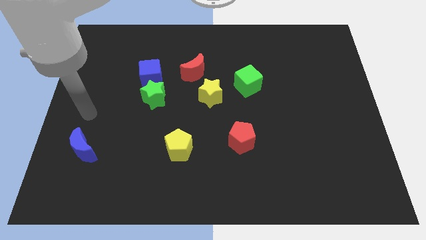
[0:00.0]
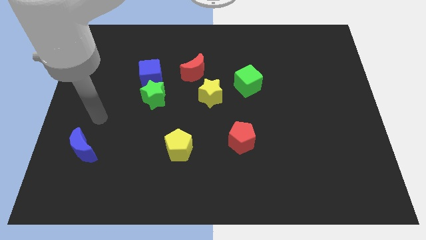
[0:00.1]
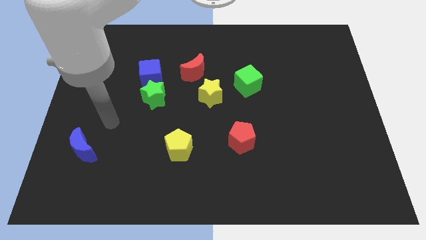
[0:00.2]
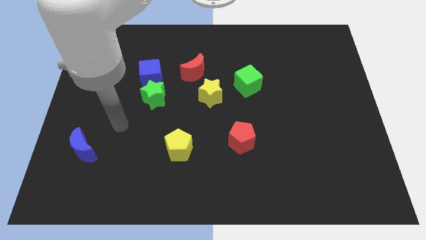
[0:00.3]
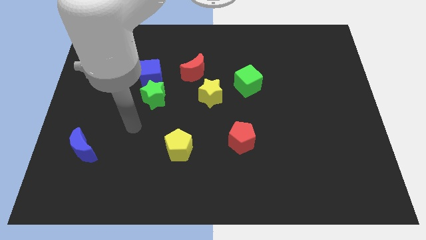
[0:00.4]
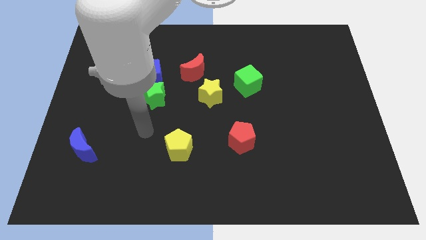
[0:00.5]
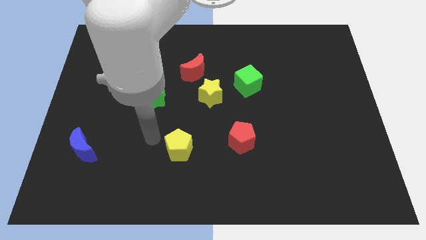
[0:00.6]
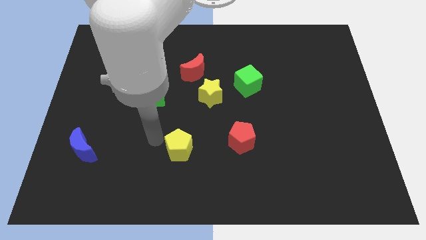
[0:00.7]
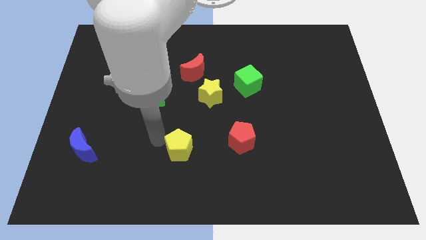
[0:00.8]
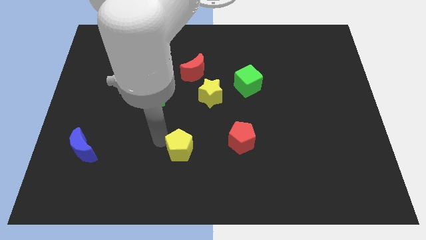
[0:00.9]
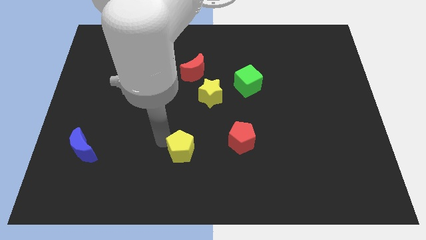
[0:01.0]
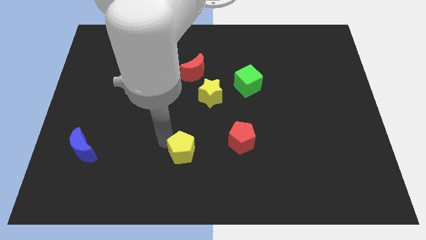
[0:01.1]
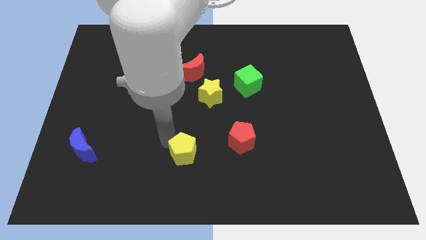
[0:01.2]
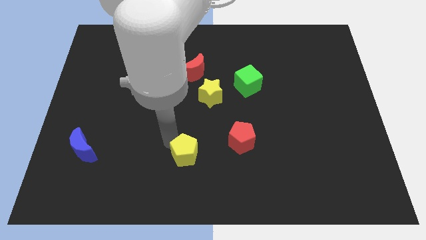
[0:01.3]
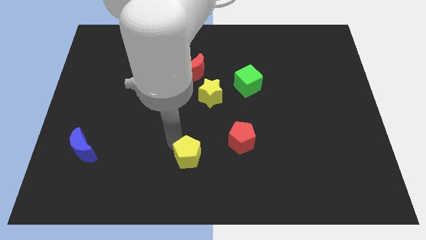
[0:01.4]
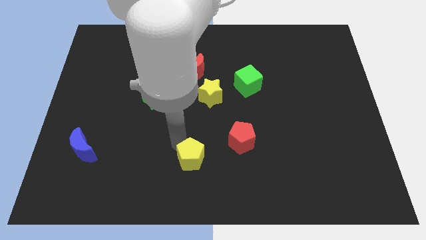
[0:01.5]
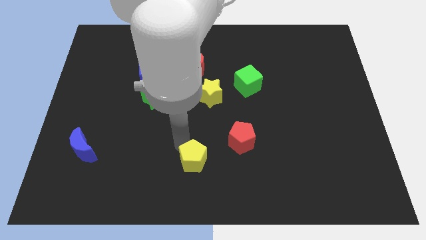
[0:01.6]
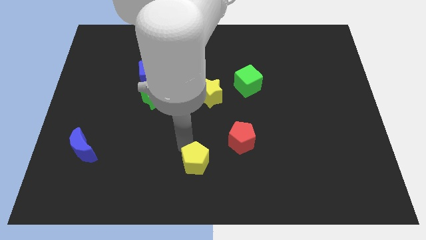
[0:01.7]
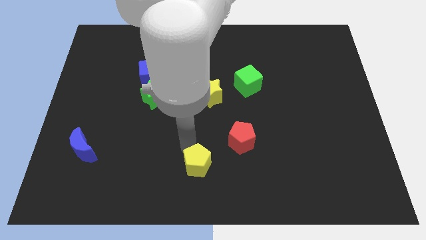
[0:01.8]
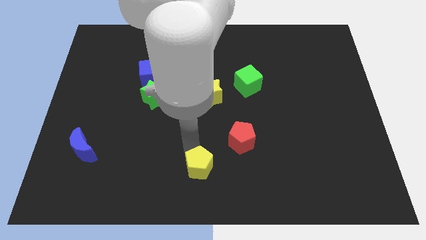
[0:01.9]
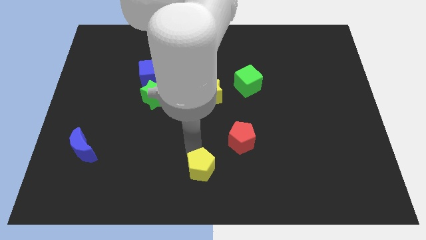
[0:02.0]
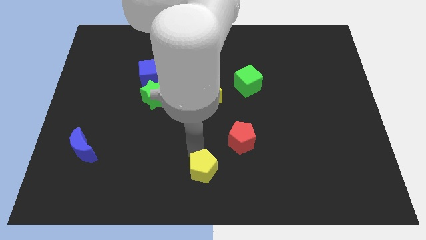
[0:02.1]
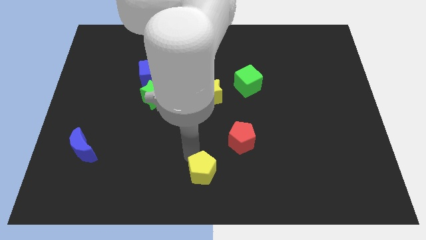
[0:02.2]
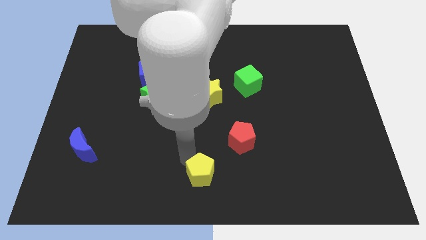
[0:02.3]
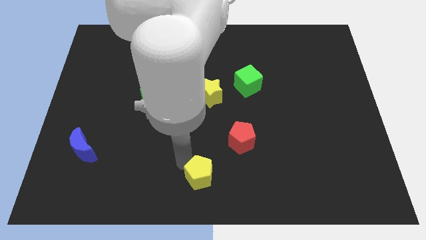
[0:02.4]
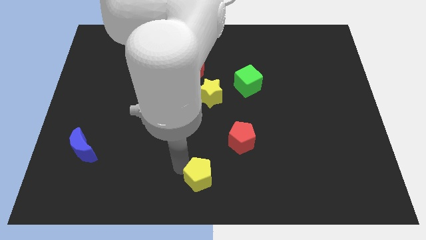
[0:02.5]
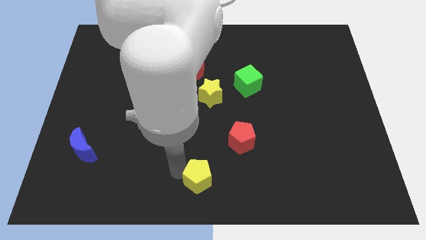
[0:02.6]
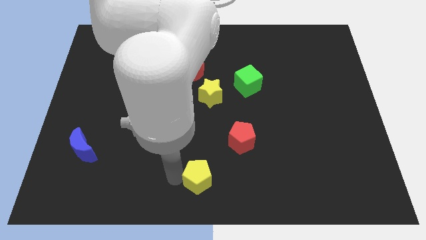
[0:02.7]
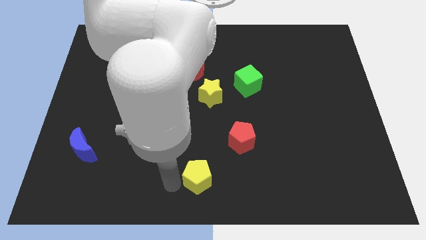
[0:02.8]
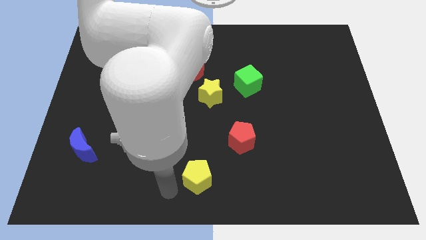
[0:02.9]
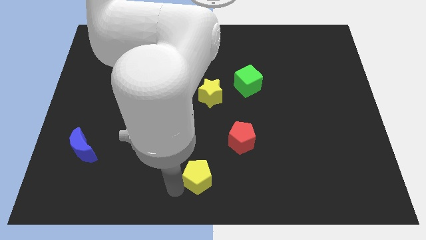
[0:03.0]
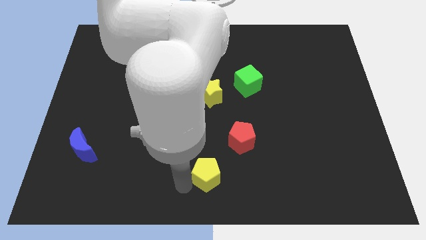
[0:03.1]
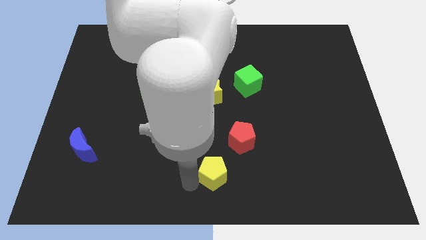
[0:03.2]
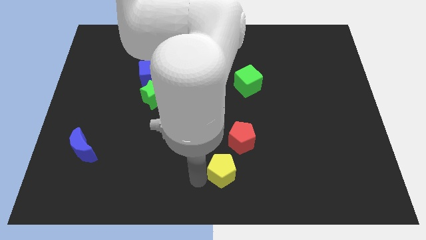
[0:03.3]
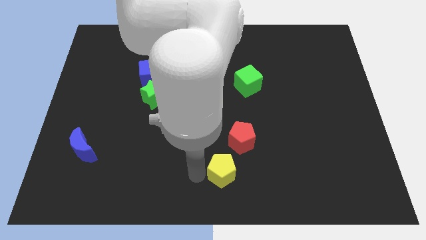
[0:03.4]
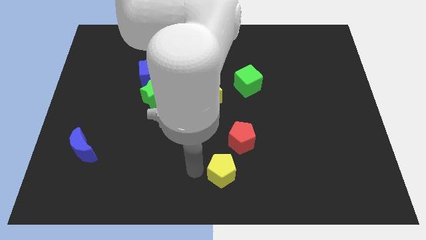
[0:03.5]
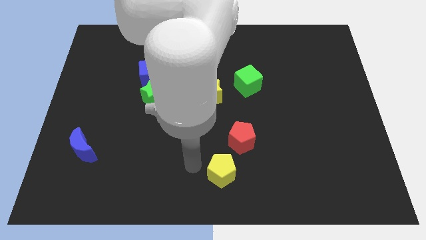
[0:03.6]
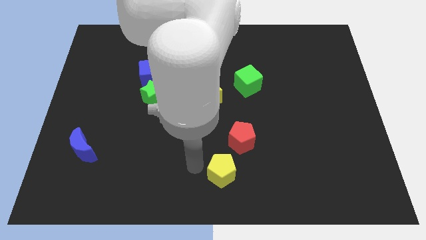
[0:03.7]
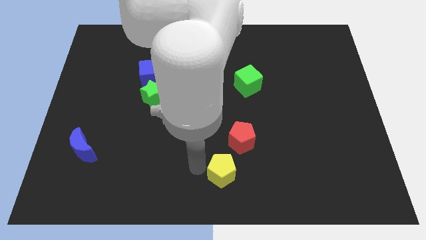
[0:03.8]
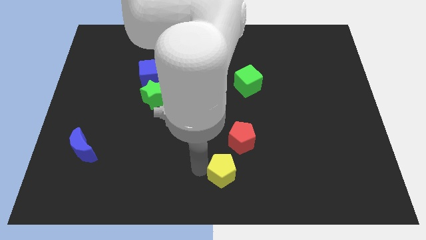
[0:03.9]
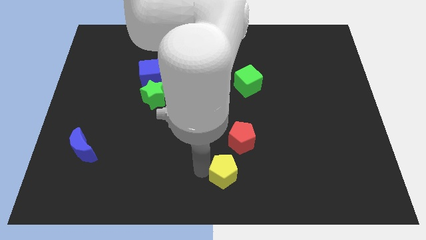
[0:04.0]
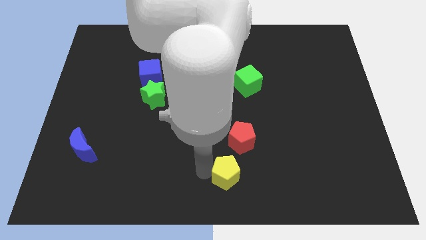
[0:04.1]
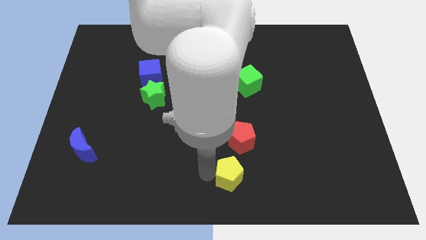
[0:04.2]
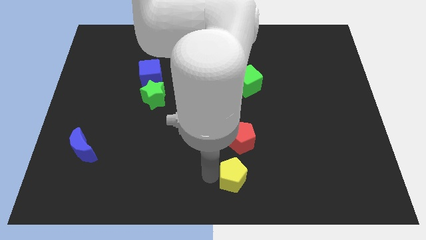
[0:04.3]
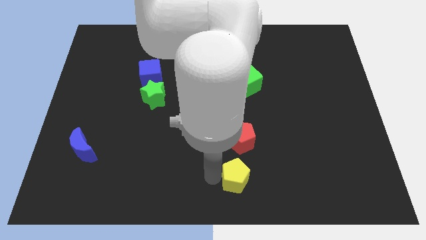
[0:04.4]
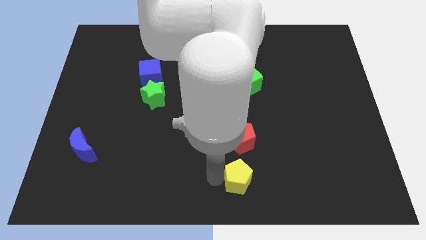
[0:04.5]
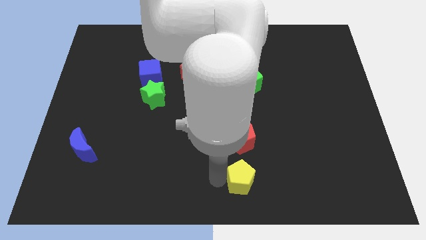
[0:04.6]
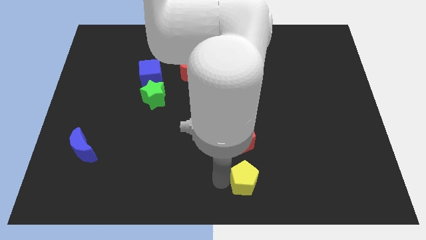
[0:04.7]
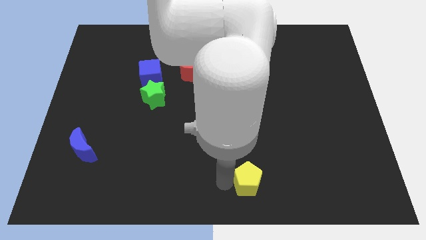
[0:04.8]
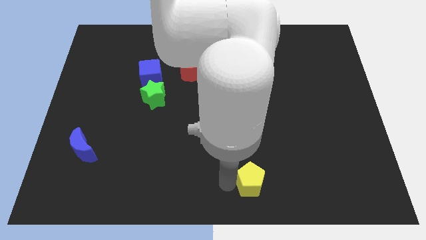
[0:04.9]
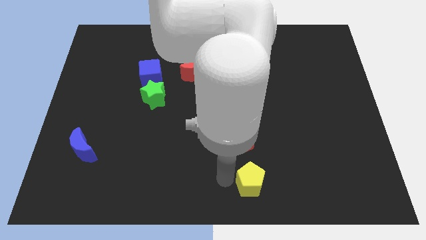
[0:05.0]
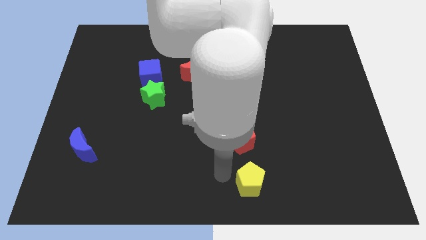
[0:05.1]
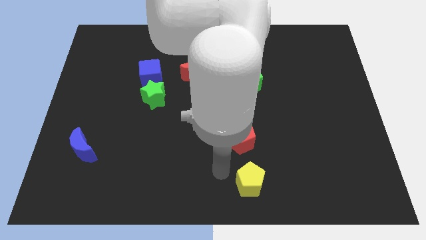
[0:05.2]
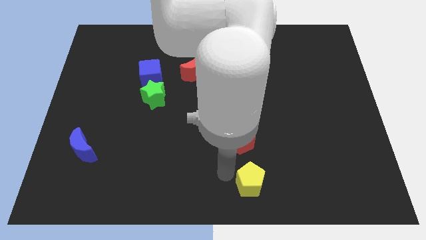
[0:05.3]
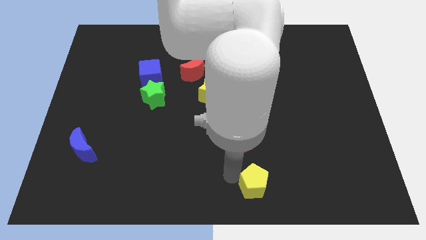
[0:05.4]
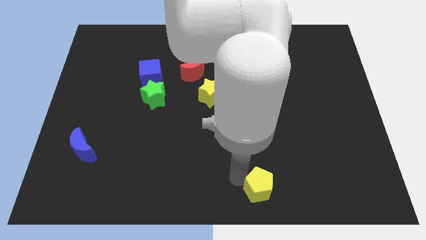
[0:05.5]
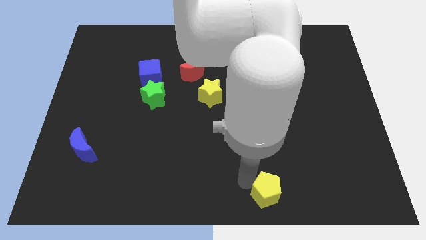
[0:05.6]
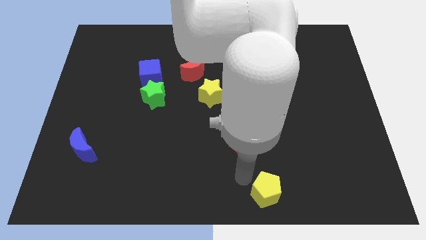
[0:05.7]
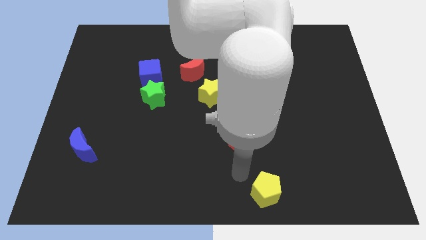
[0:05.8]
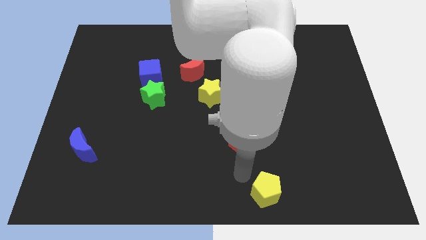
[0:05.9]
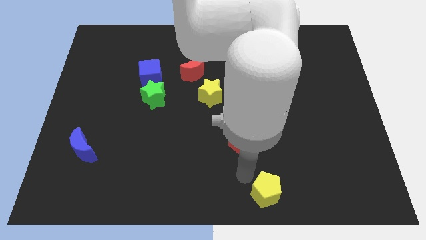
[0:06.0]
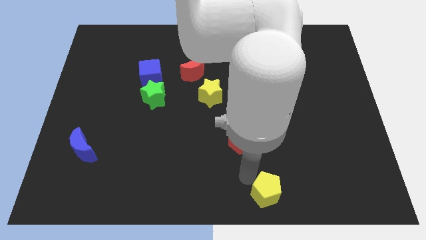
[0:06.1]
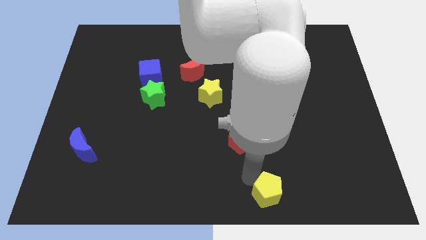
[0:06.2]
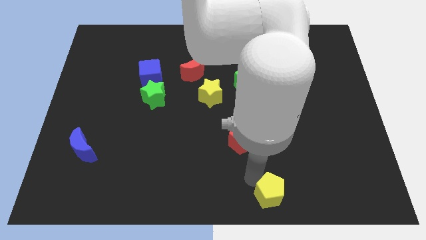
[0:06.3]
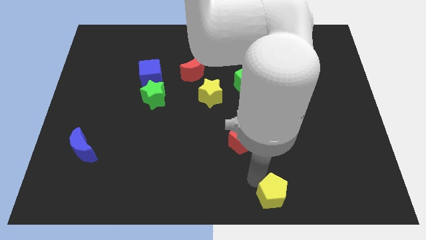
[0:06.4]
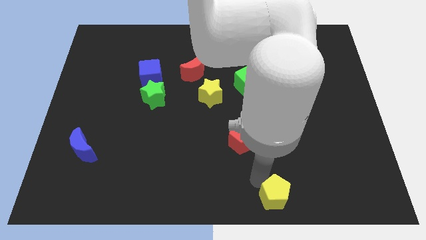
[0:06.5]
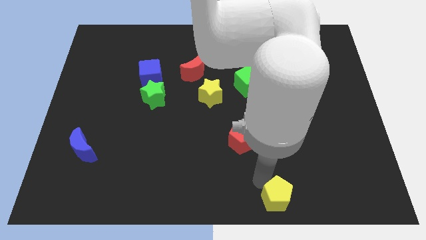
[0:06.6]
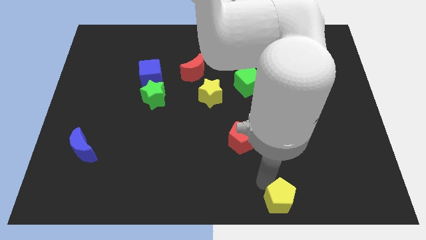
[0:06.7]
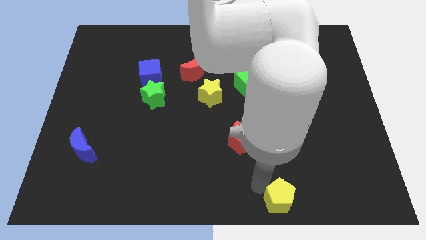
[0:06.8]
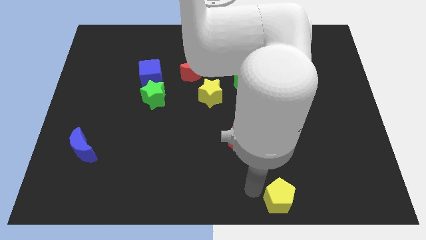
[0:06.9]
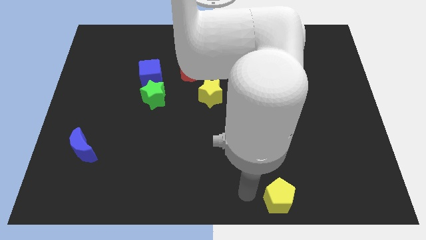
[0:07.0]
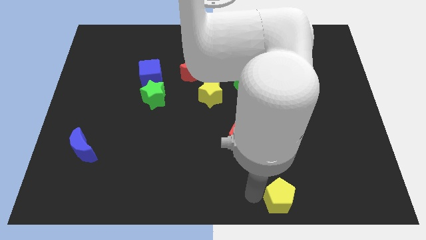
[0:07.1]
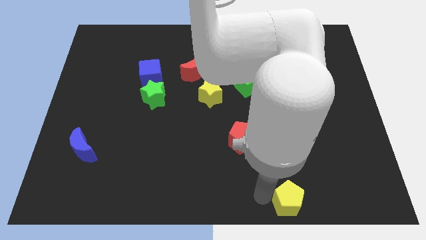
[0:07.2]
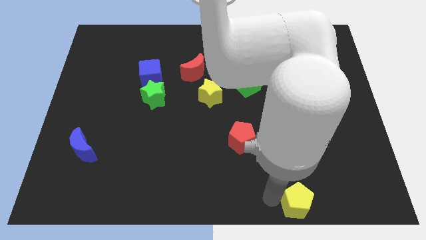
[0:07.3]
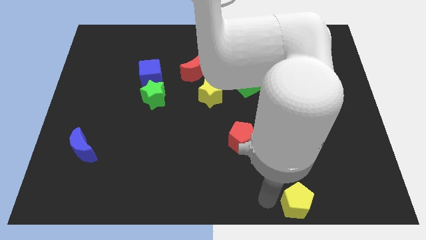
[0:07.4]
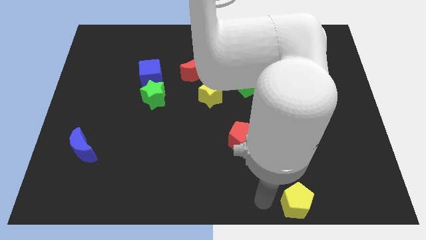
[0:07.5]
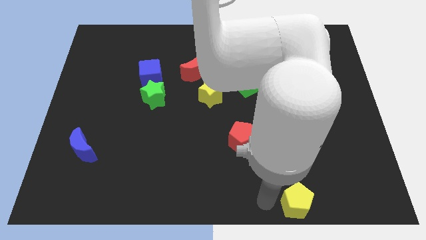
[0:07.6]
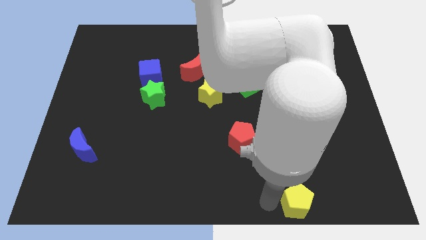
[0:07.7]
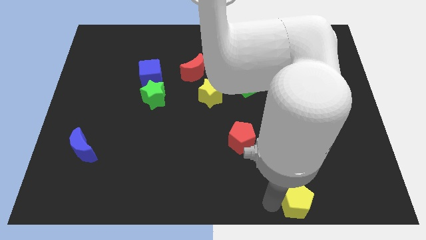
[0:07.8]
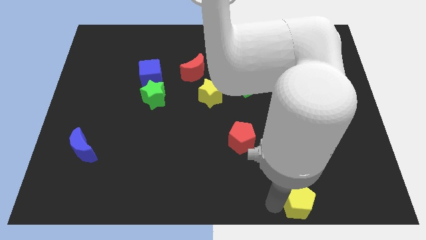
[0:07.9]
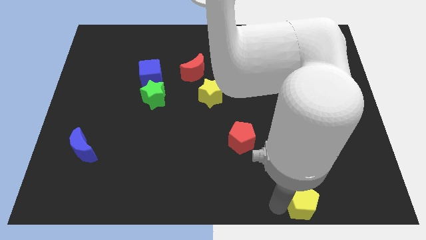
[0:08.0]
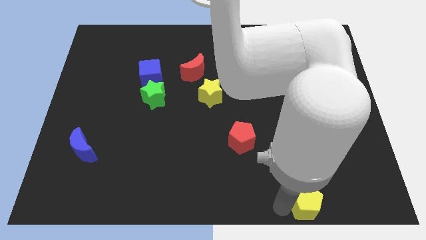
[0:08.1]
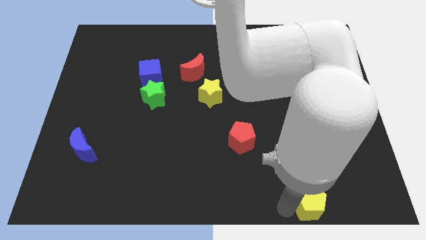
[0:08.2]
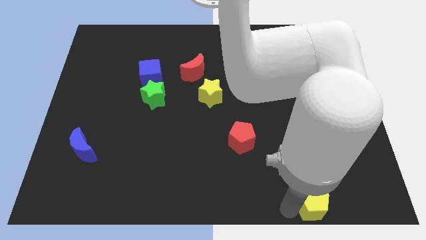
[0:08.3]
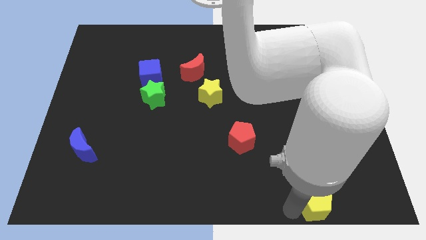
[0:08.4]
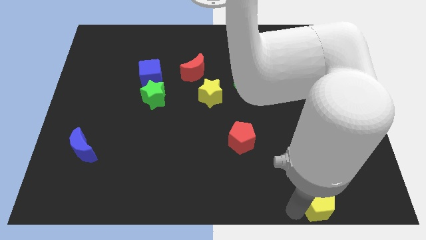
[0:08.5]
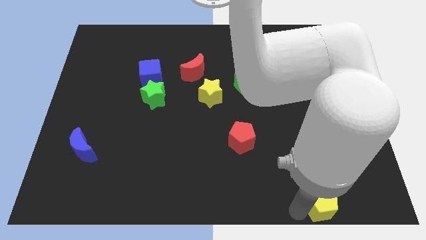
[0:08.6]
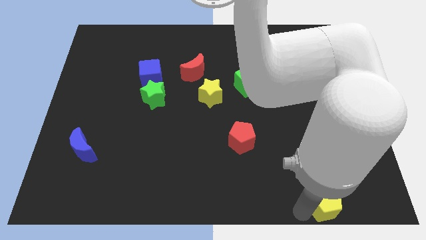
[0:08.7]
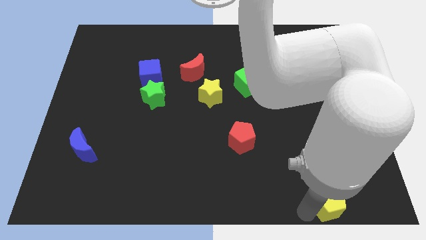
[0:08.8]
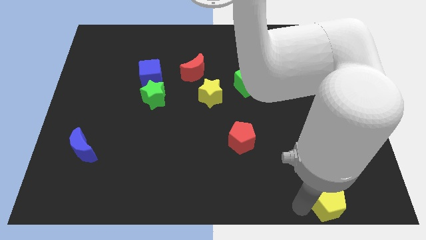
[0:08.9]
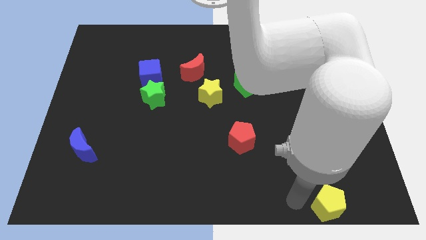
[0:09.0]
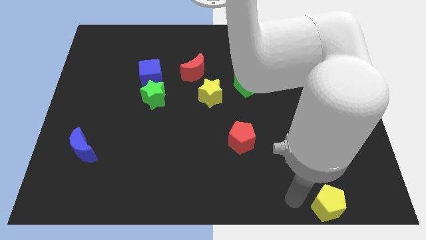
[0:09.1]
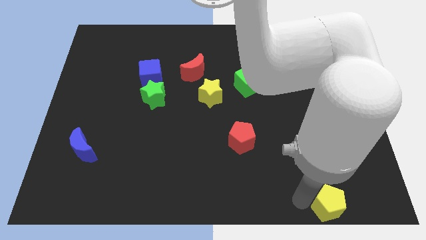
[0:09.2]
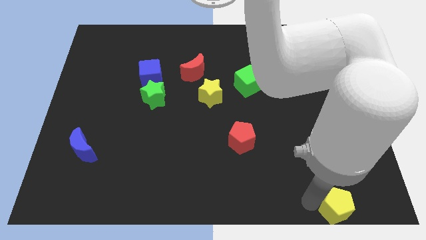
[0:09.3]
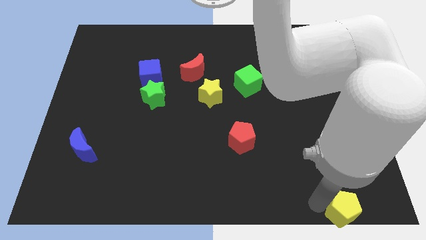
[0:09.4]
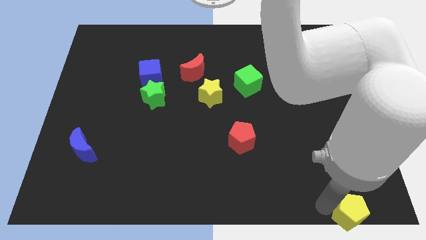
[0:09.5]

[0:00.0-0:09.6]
move the yellow pentagon to the bottom right corner
